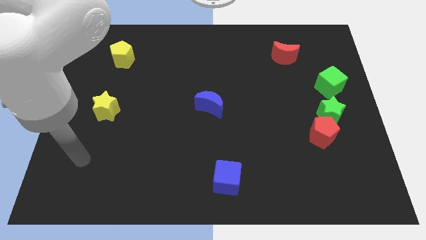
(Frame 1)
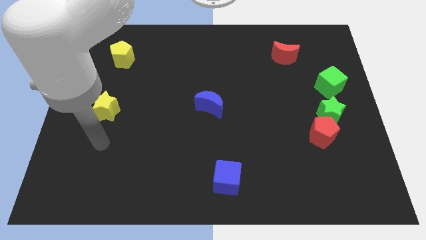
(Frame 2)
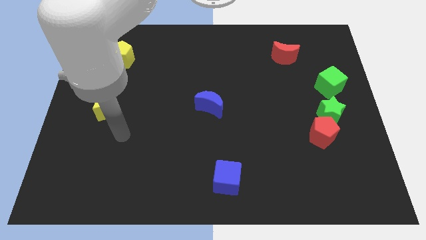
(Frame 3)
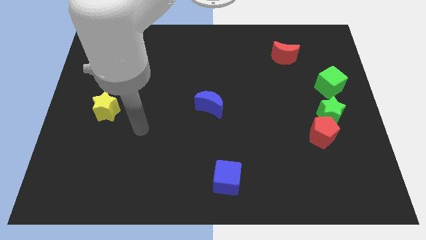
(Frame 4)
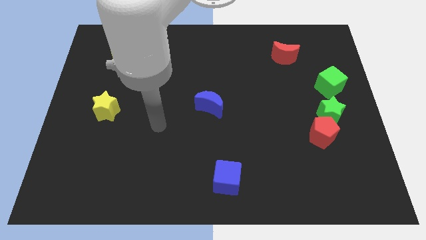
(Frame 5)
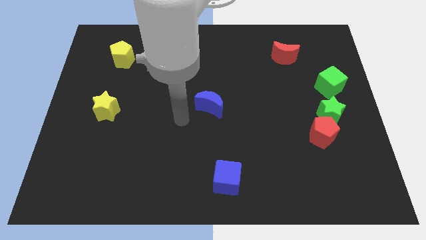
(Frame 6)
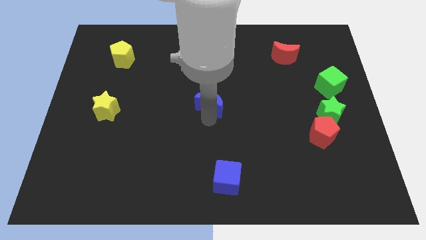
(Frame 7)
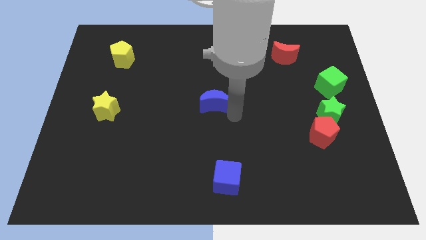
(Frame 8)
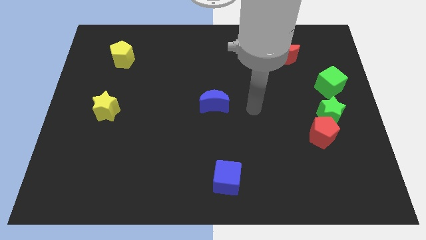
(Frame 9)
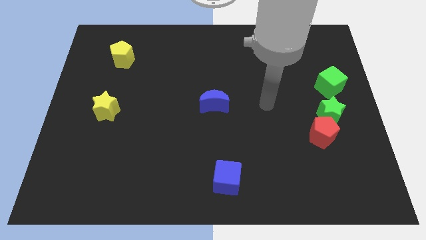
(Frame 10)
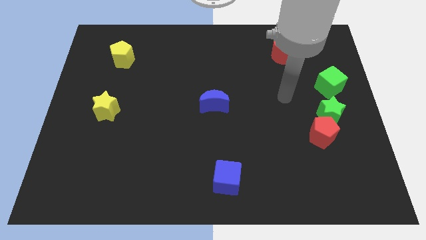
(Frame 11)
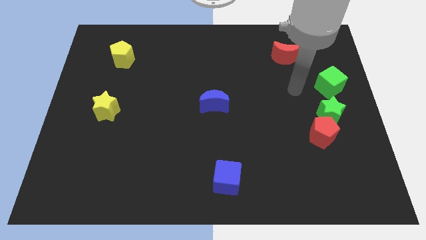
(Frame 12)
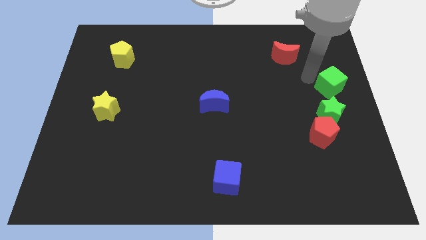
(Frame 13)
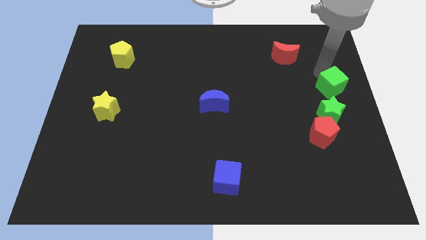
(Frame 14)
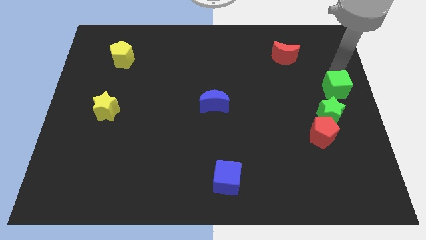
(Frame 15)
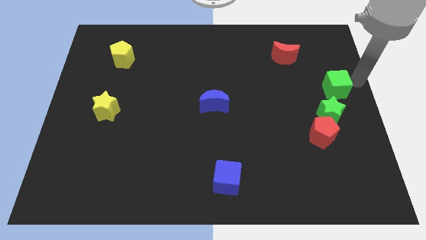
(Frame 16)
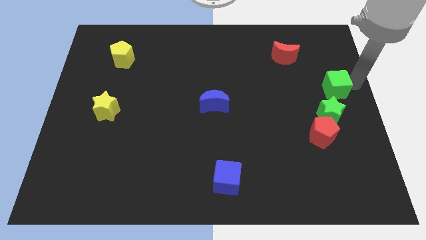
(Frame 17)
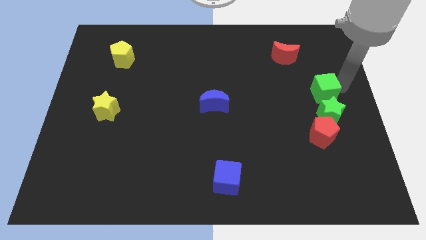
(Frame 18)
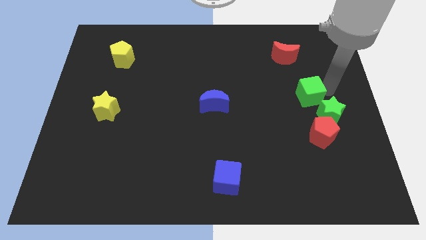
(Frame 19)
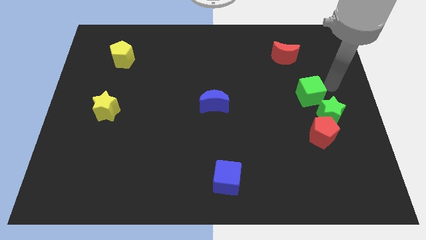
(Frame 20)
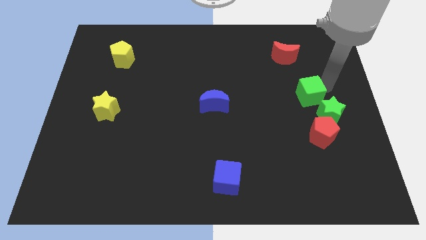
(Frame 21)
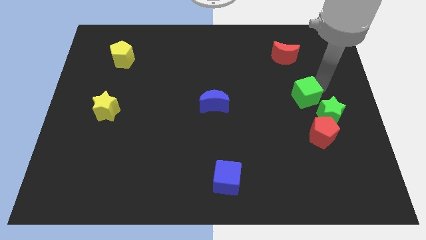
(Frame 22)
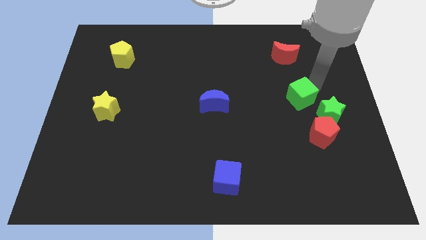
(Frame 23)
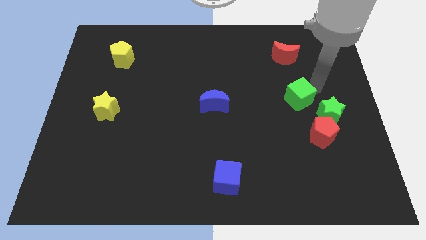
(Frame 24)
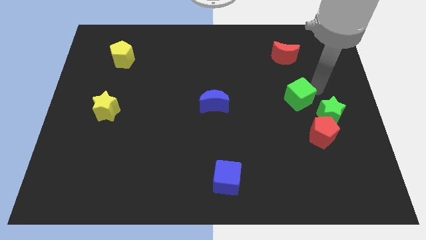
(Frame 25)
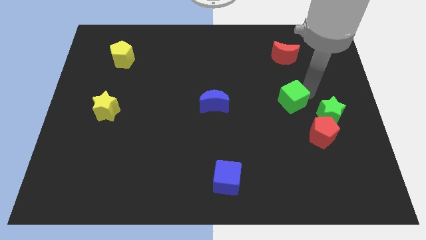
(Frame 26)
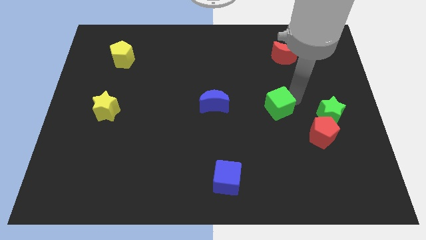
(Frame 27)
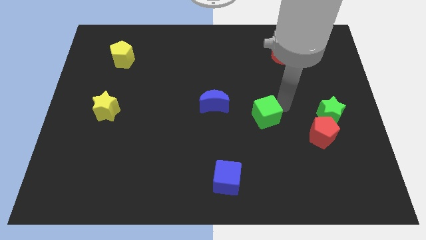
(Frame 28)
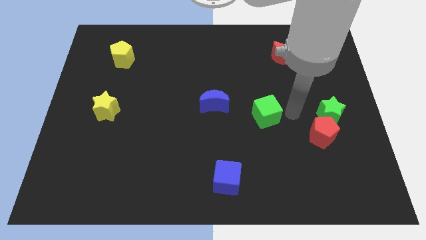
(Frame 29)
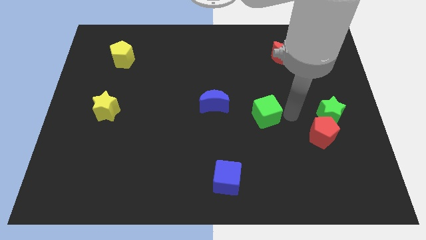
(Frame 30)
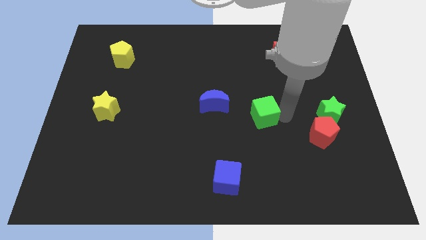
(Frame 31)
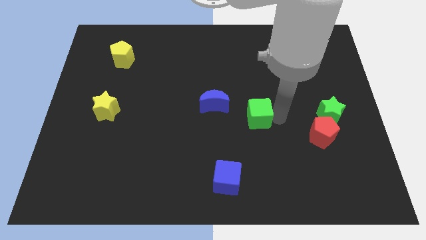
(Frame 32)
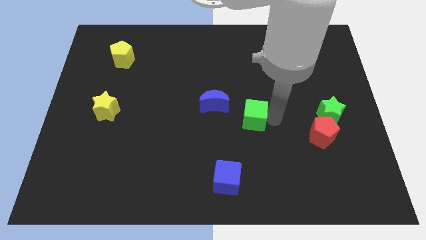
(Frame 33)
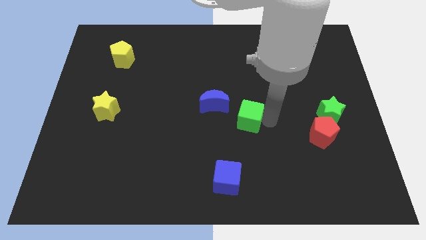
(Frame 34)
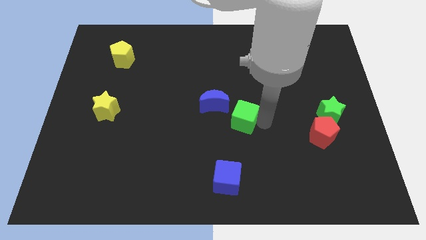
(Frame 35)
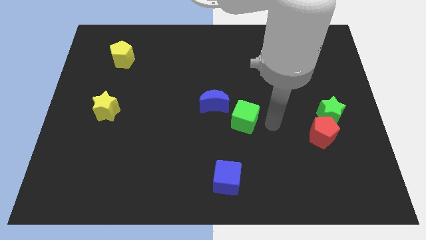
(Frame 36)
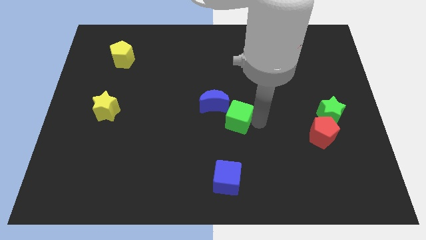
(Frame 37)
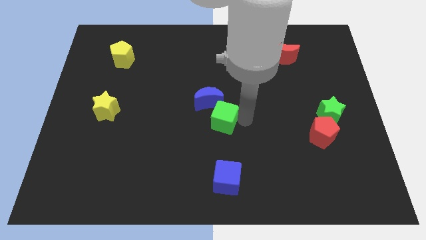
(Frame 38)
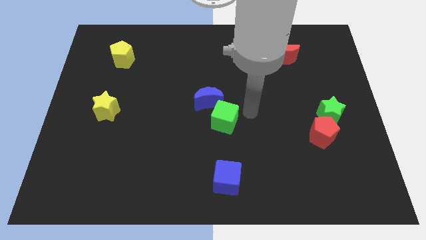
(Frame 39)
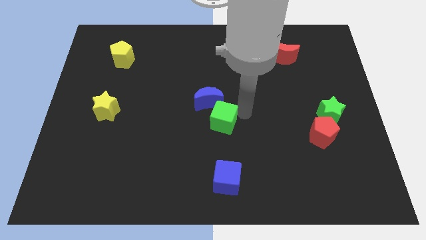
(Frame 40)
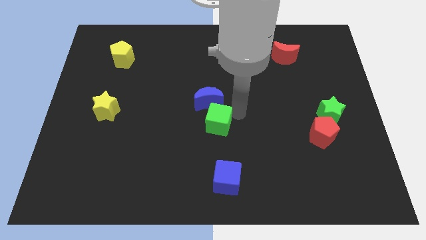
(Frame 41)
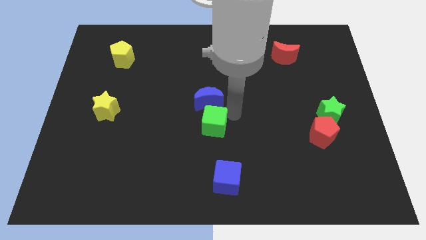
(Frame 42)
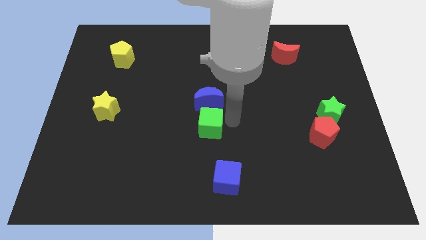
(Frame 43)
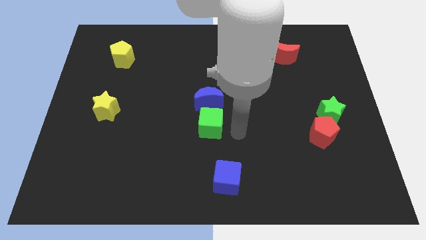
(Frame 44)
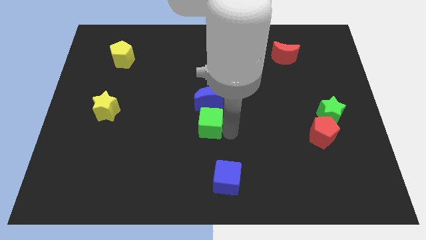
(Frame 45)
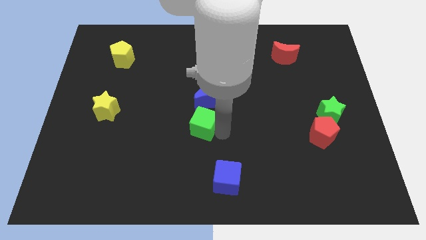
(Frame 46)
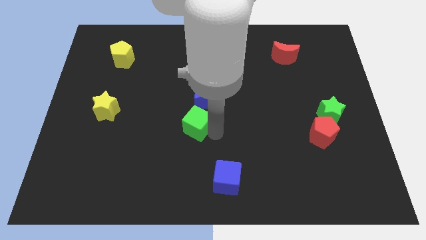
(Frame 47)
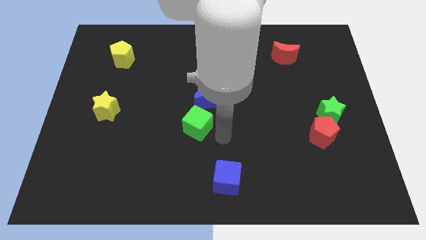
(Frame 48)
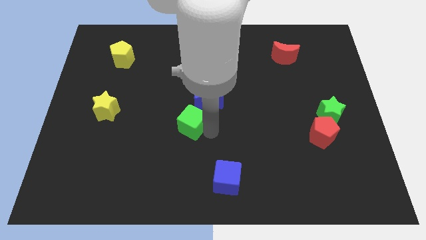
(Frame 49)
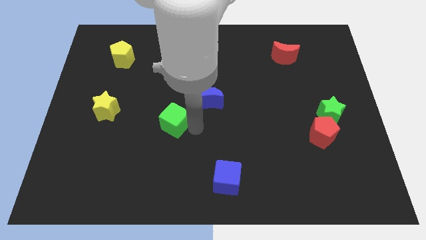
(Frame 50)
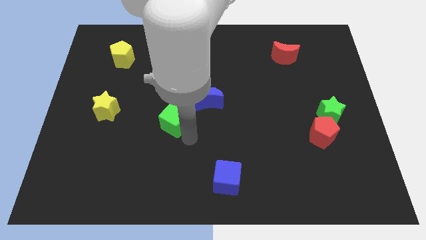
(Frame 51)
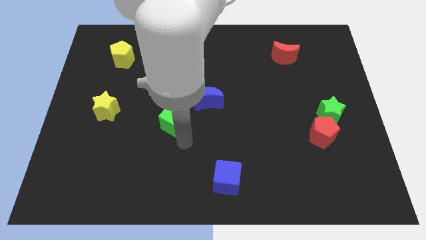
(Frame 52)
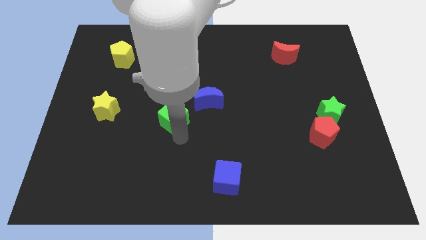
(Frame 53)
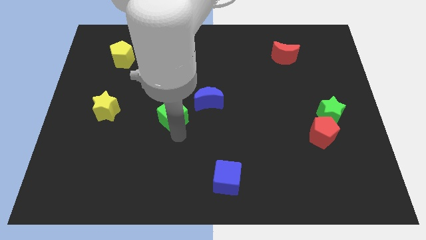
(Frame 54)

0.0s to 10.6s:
slide the green cube just left of the blue moon

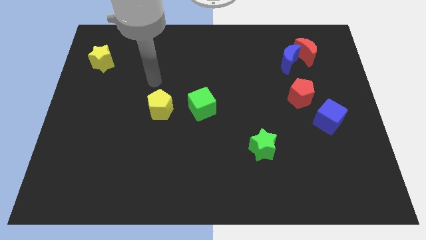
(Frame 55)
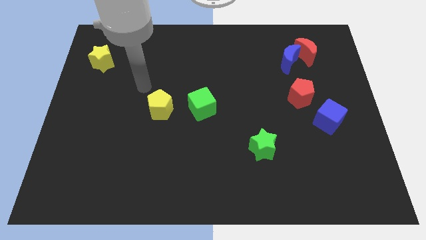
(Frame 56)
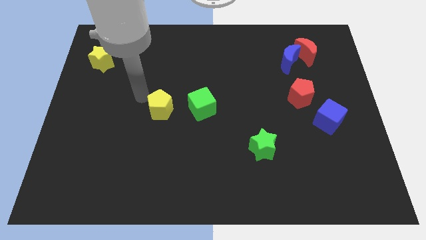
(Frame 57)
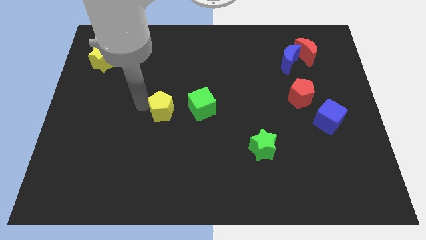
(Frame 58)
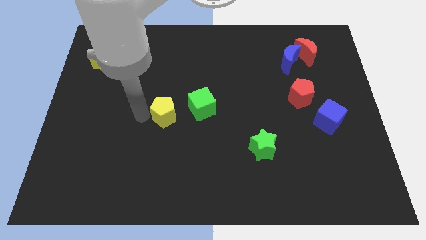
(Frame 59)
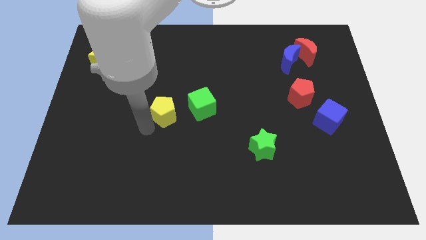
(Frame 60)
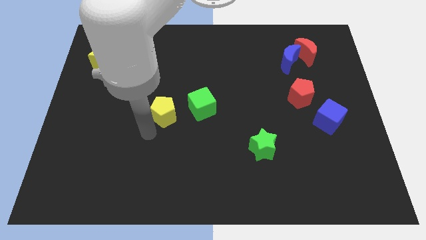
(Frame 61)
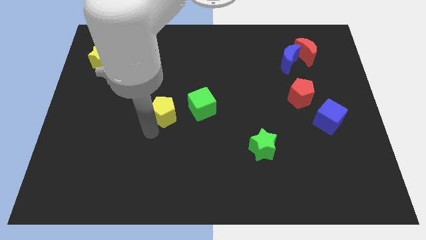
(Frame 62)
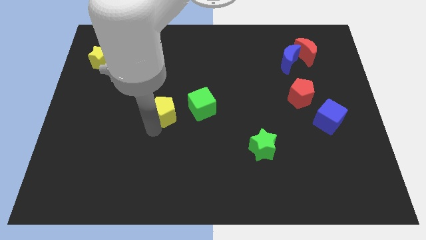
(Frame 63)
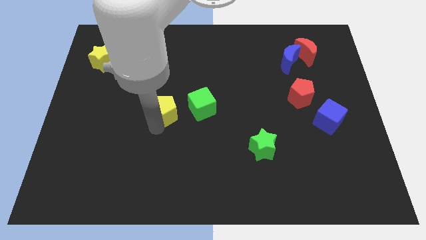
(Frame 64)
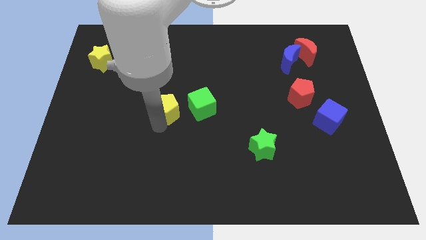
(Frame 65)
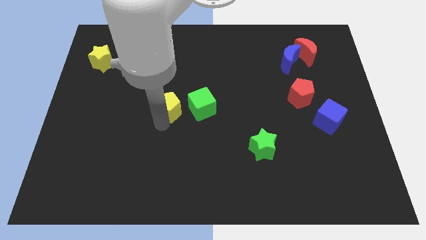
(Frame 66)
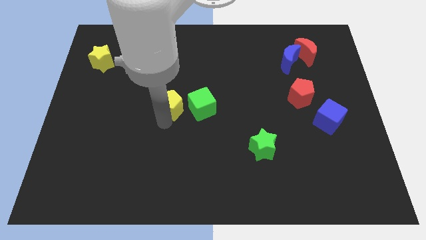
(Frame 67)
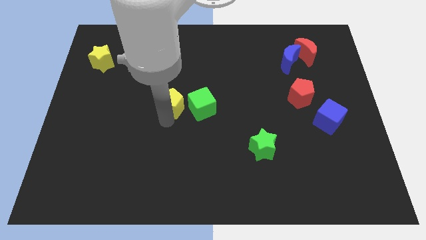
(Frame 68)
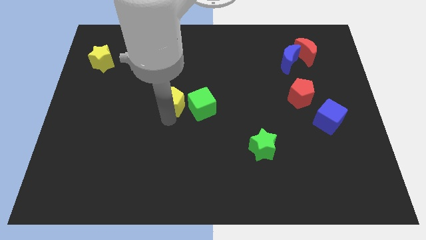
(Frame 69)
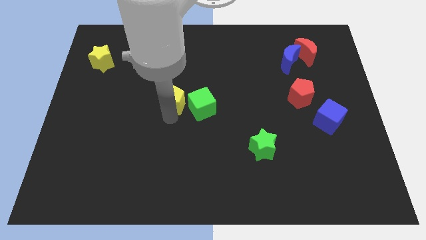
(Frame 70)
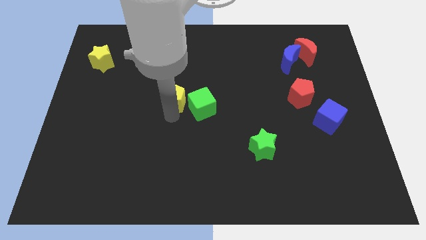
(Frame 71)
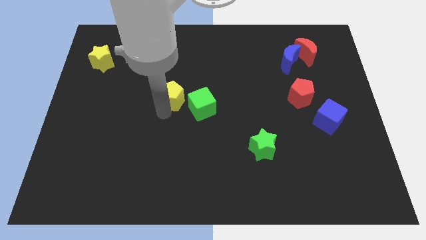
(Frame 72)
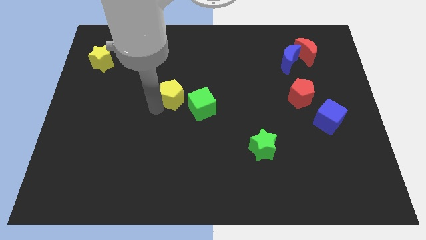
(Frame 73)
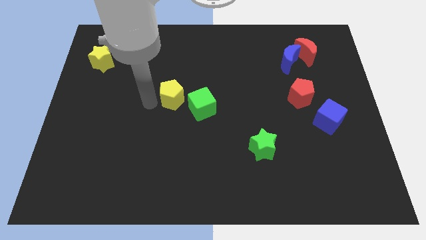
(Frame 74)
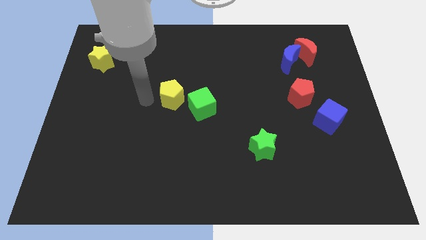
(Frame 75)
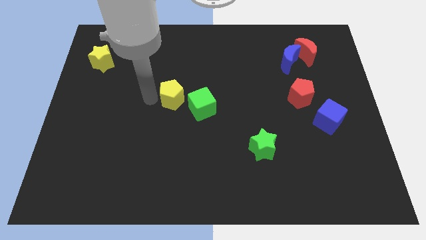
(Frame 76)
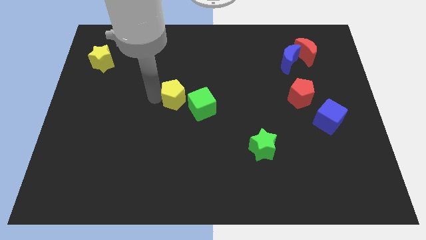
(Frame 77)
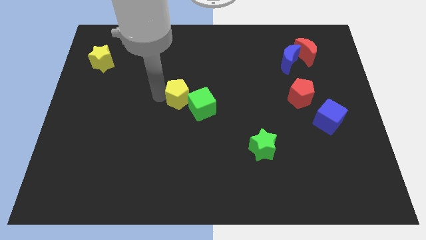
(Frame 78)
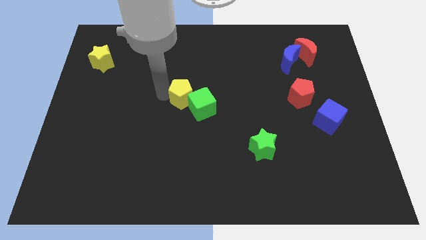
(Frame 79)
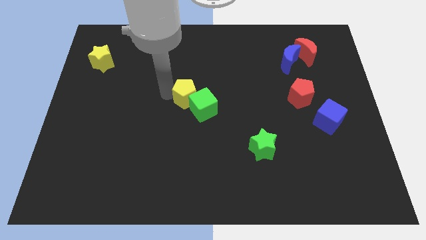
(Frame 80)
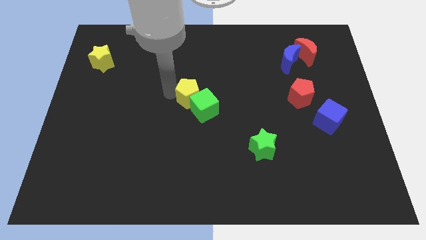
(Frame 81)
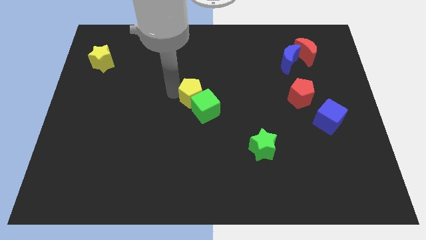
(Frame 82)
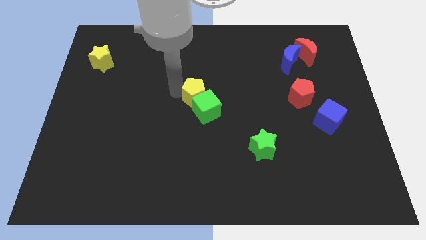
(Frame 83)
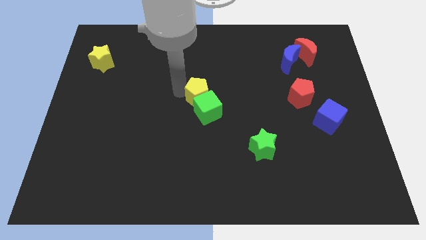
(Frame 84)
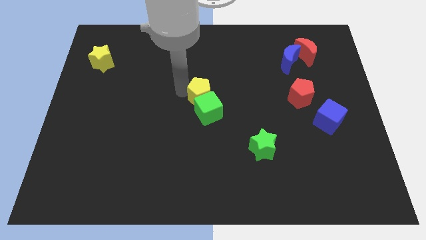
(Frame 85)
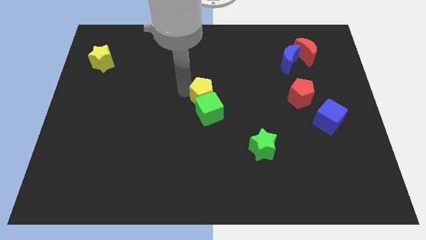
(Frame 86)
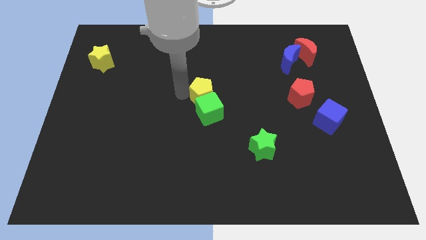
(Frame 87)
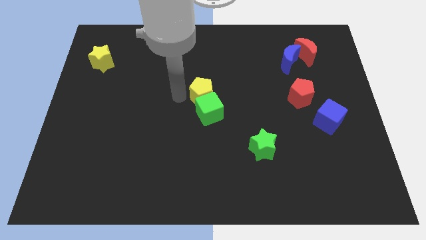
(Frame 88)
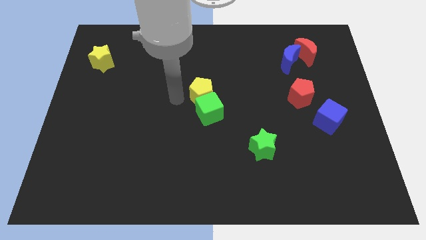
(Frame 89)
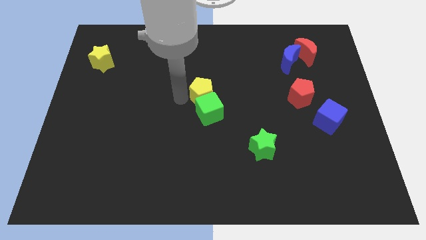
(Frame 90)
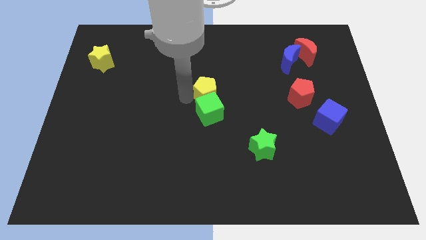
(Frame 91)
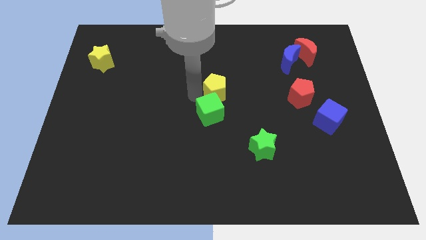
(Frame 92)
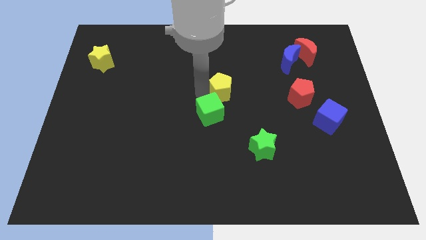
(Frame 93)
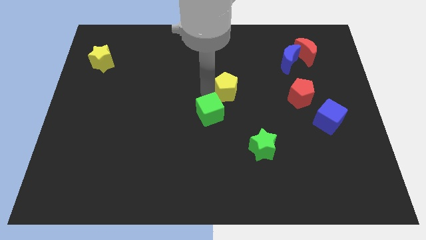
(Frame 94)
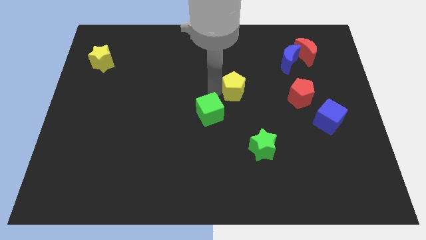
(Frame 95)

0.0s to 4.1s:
push the yellow pentagon to the left of the red pentagon
